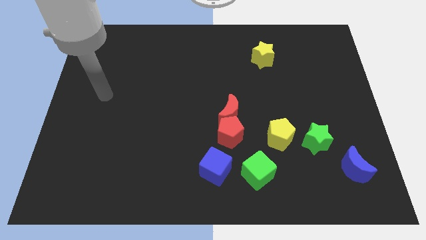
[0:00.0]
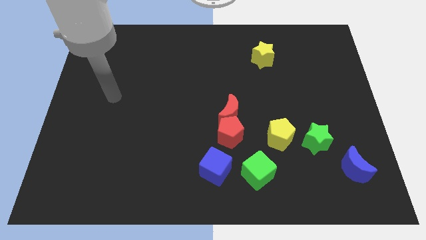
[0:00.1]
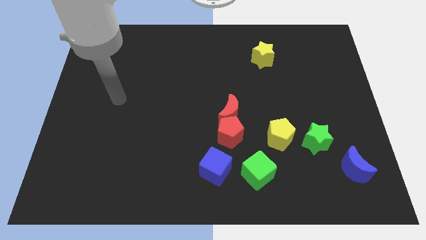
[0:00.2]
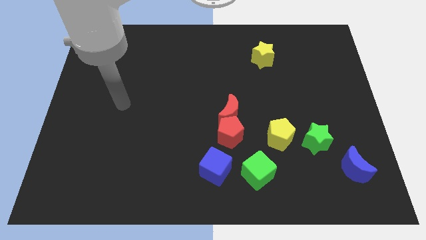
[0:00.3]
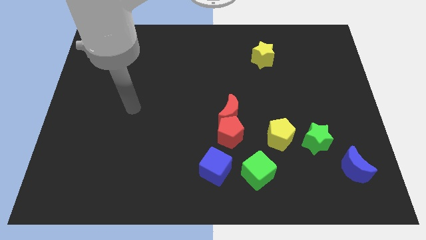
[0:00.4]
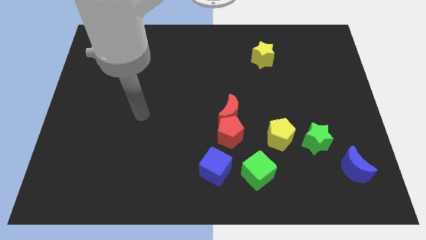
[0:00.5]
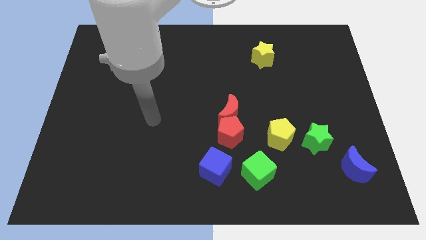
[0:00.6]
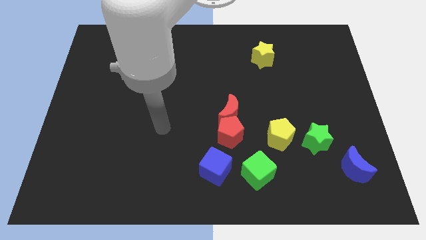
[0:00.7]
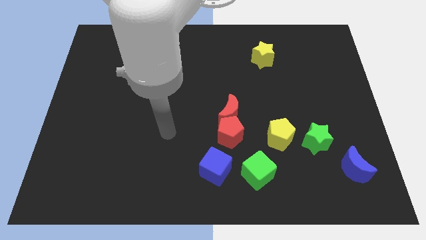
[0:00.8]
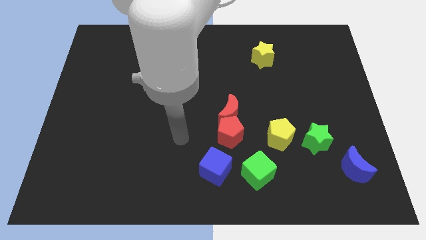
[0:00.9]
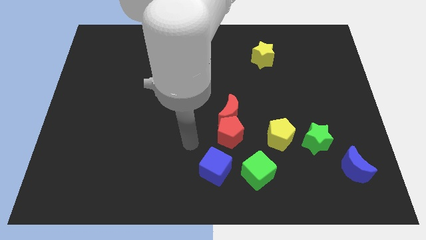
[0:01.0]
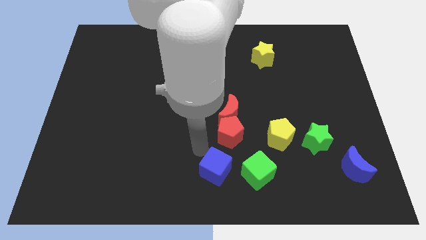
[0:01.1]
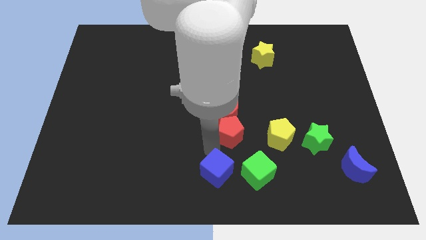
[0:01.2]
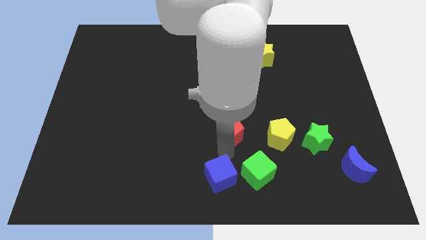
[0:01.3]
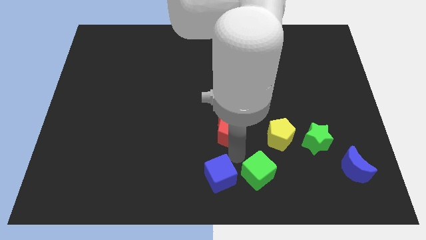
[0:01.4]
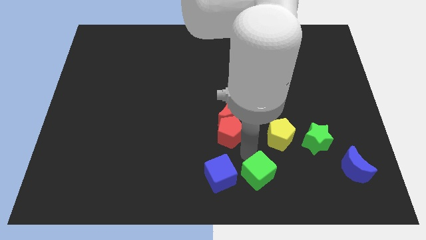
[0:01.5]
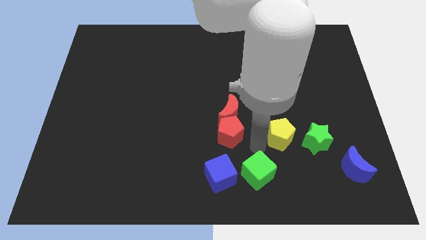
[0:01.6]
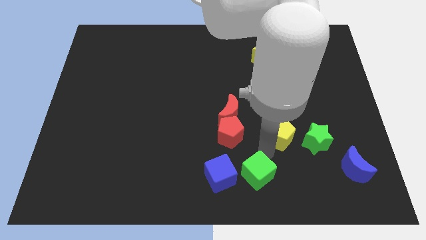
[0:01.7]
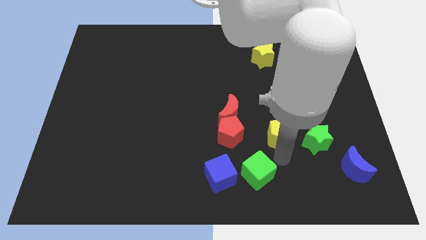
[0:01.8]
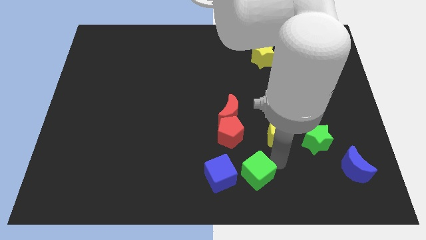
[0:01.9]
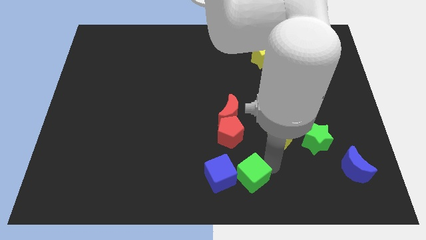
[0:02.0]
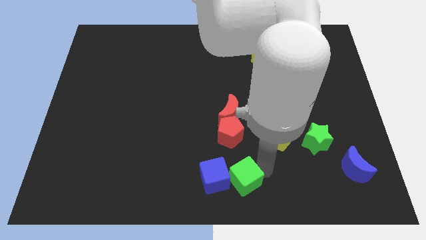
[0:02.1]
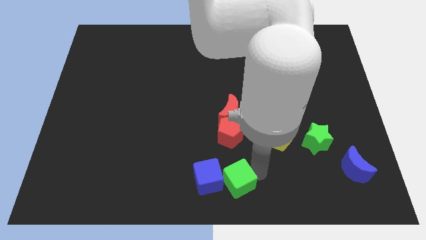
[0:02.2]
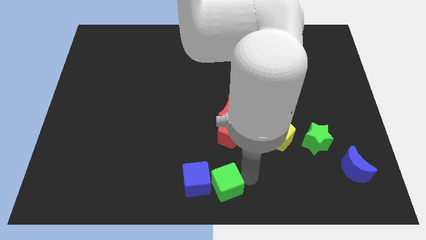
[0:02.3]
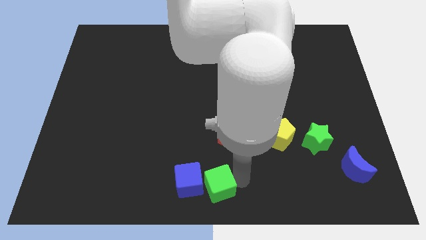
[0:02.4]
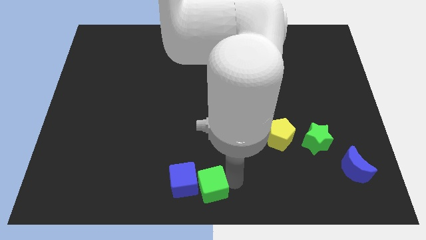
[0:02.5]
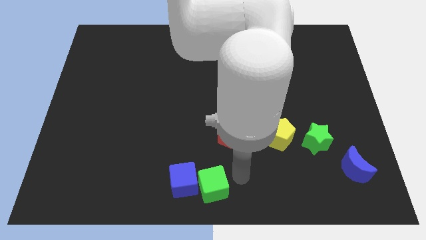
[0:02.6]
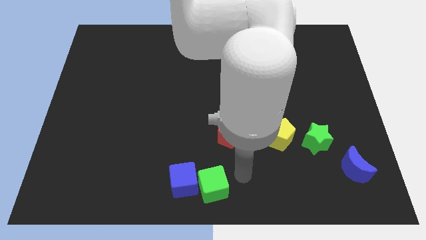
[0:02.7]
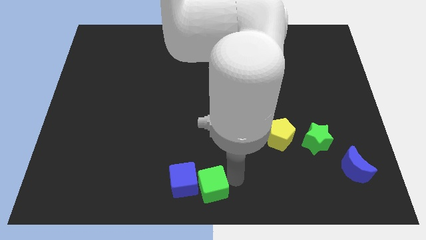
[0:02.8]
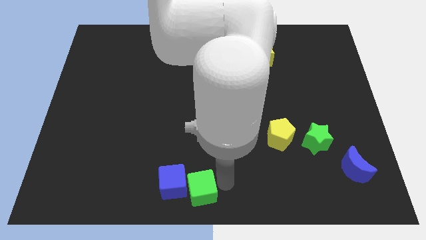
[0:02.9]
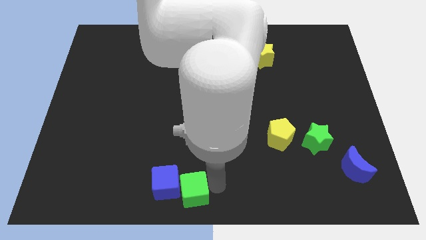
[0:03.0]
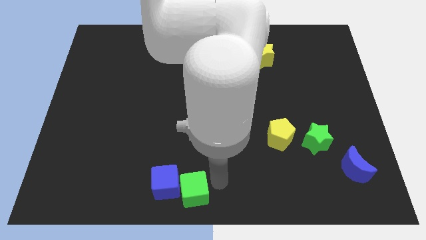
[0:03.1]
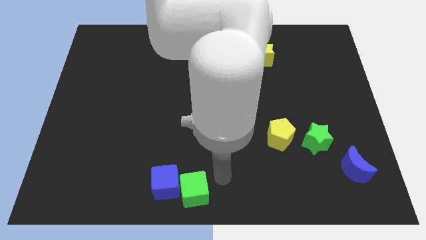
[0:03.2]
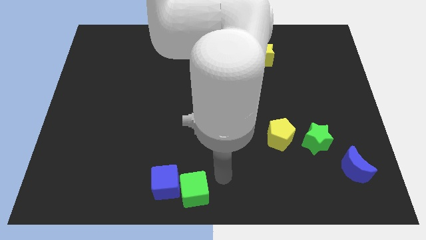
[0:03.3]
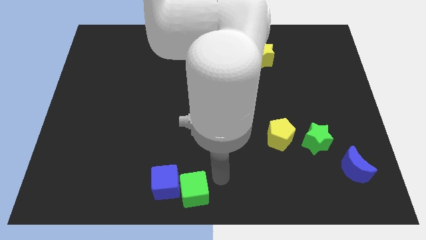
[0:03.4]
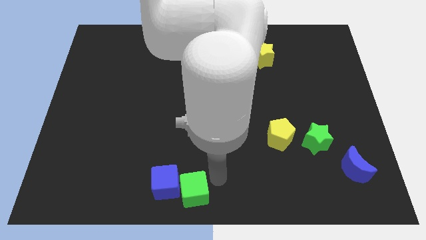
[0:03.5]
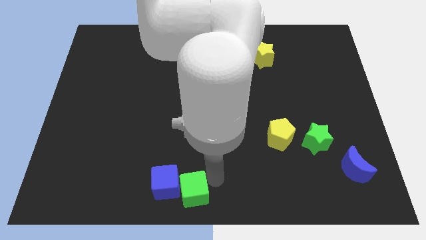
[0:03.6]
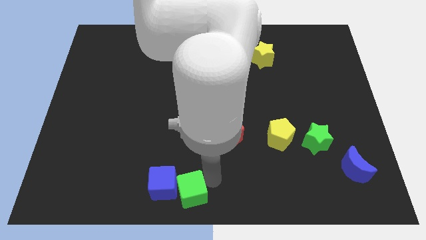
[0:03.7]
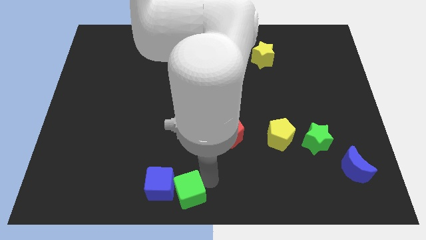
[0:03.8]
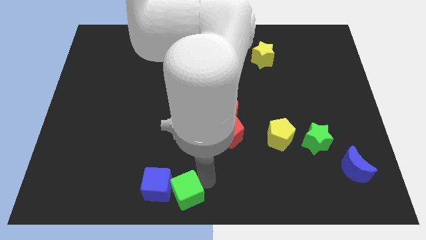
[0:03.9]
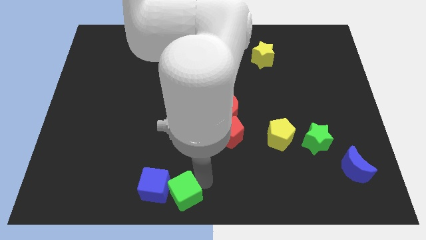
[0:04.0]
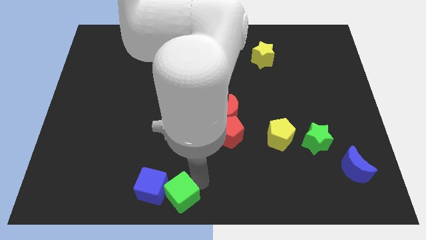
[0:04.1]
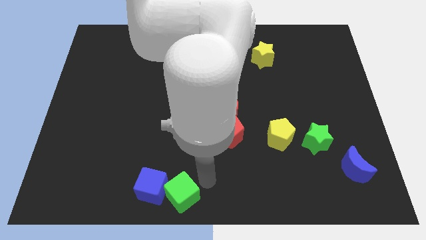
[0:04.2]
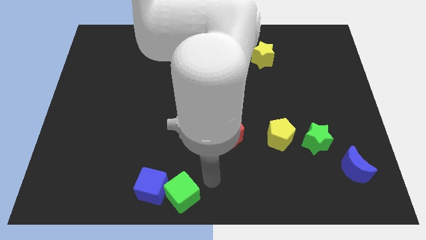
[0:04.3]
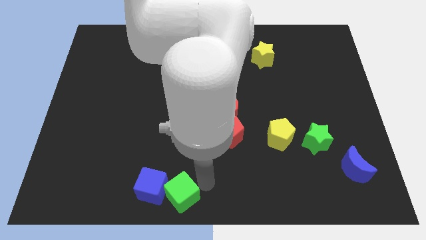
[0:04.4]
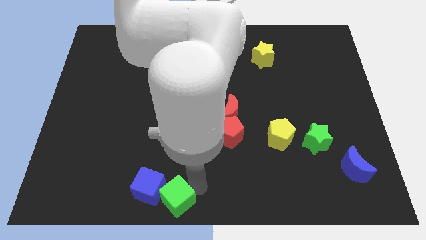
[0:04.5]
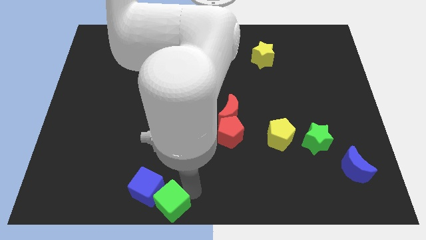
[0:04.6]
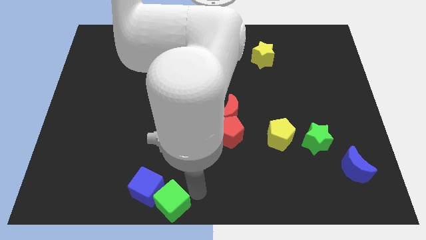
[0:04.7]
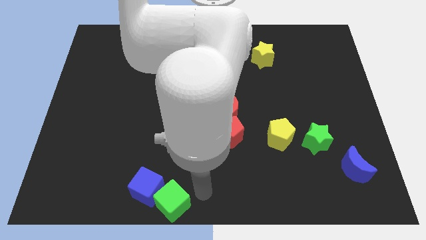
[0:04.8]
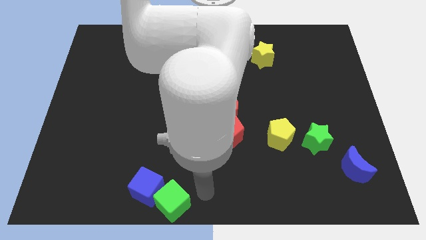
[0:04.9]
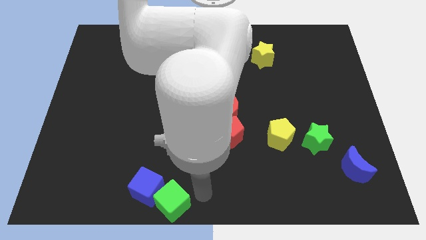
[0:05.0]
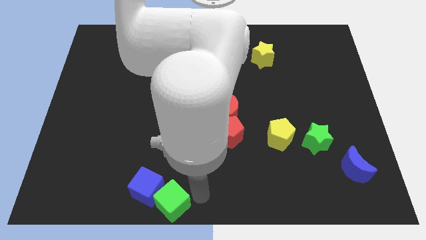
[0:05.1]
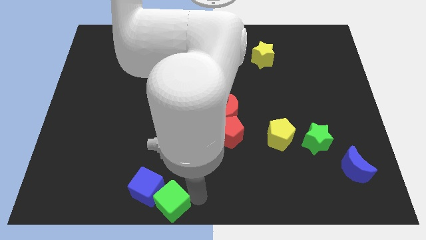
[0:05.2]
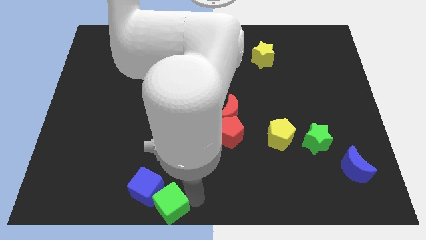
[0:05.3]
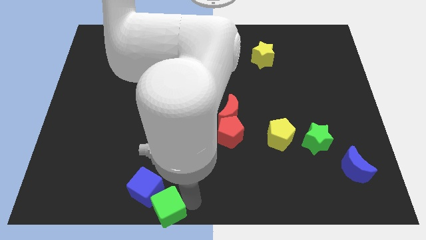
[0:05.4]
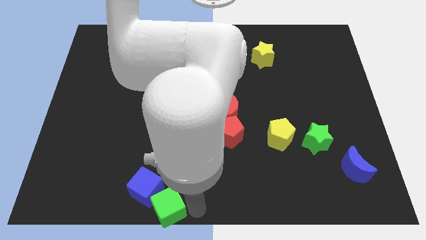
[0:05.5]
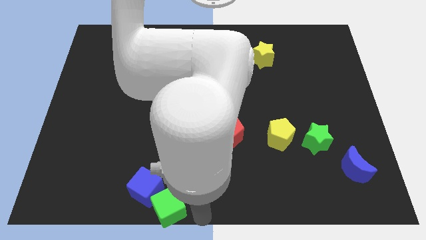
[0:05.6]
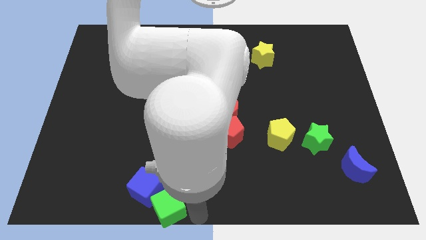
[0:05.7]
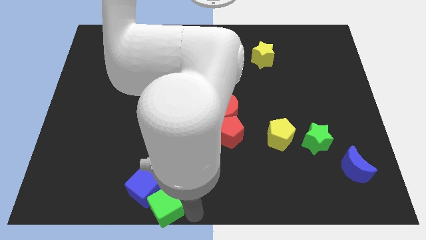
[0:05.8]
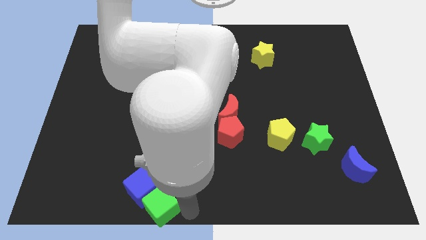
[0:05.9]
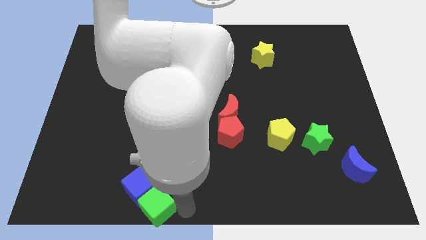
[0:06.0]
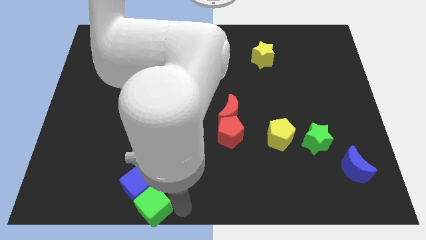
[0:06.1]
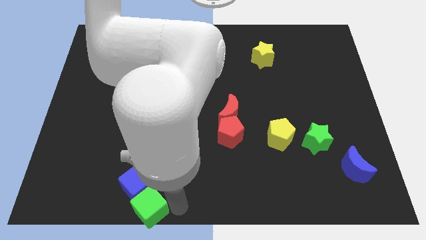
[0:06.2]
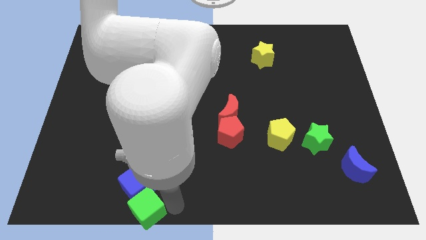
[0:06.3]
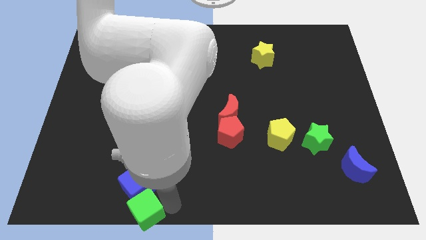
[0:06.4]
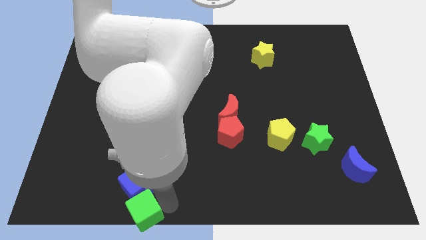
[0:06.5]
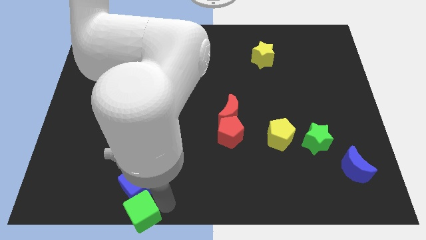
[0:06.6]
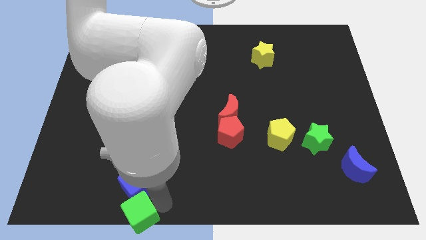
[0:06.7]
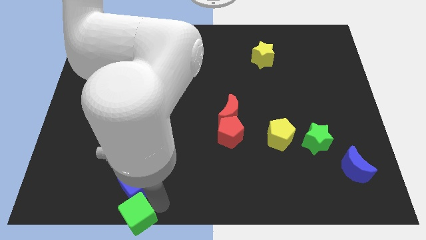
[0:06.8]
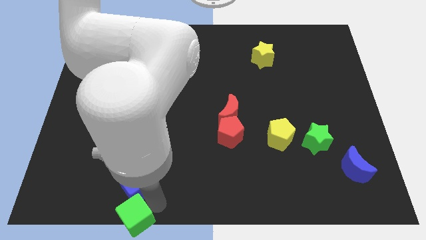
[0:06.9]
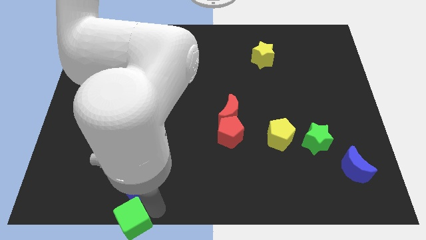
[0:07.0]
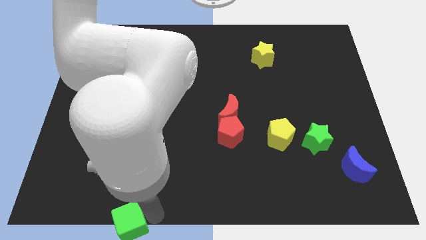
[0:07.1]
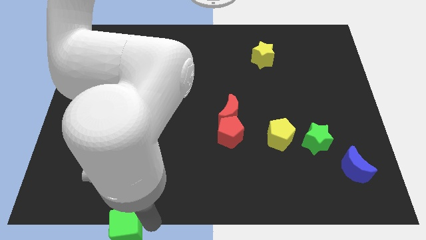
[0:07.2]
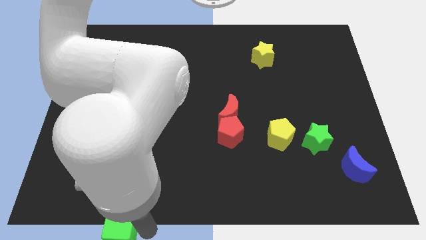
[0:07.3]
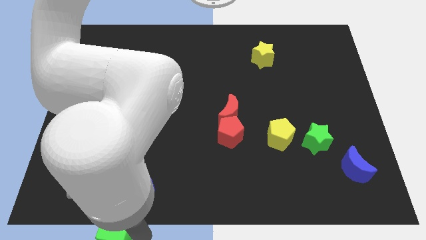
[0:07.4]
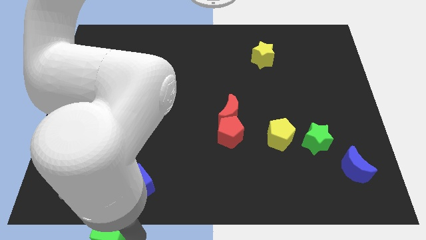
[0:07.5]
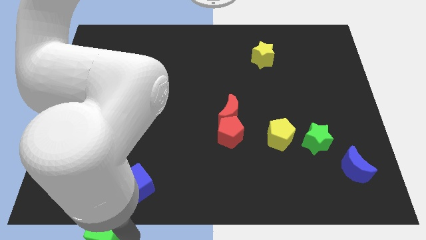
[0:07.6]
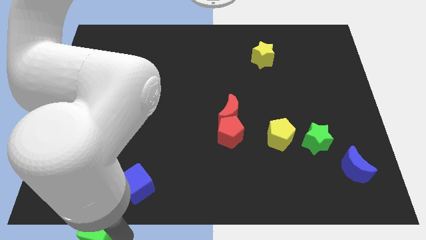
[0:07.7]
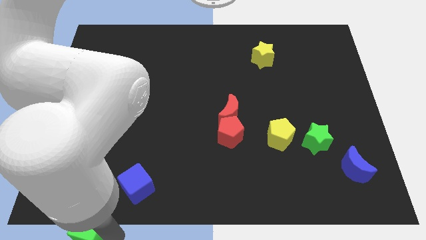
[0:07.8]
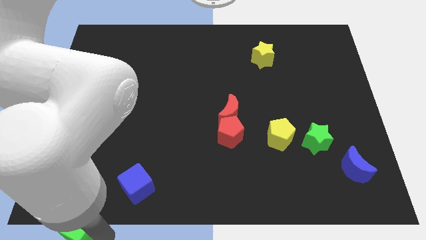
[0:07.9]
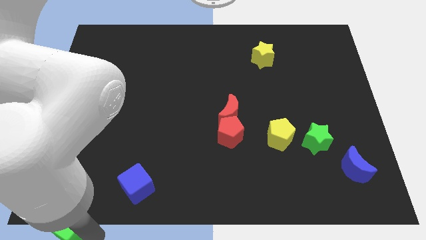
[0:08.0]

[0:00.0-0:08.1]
push the green cube to the bottom left
